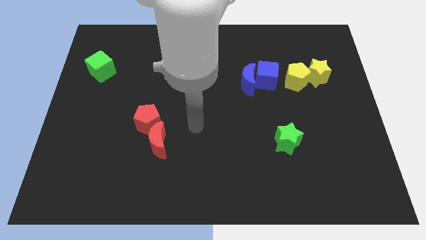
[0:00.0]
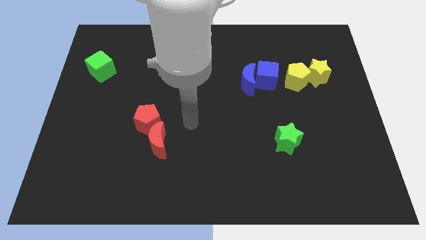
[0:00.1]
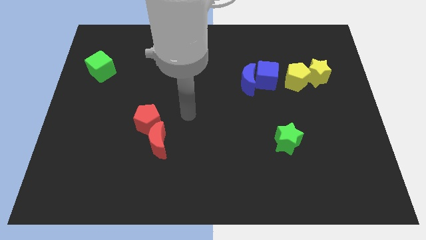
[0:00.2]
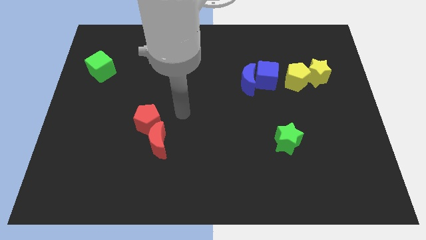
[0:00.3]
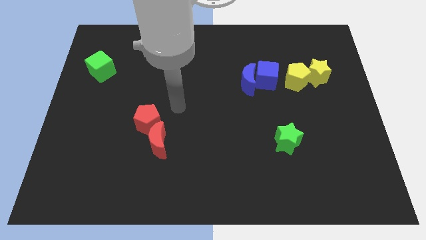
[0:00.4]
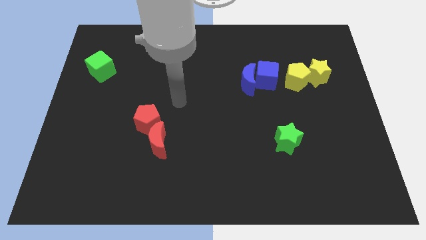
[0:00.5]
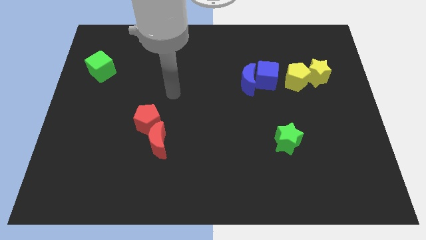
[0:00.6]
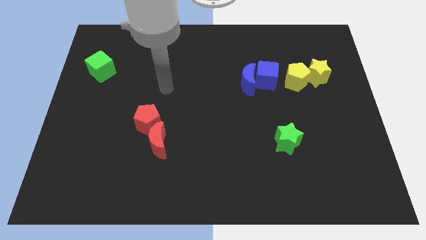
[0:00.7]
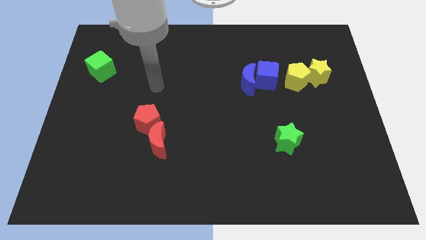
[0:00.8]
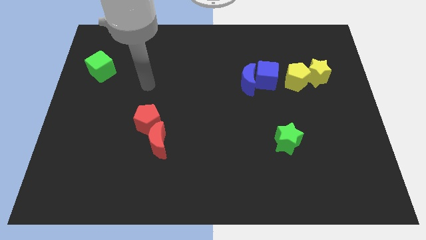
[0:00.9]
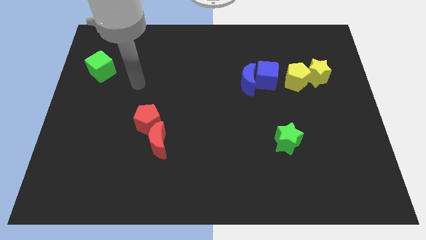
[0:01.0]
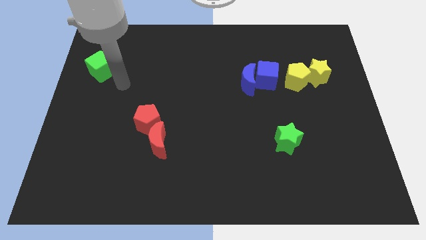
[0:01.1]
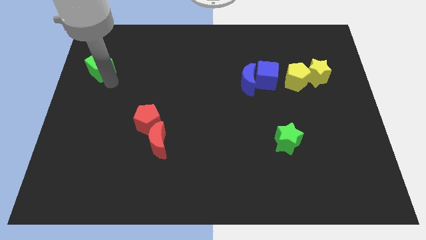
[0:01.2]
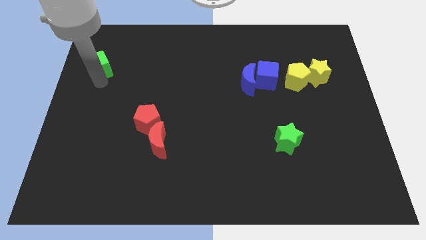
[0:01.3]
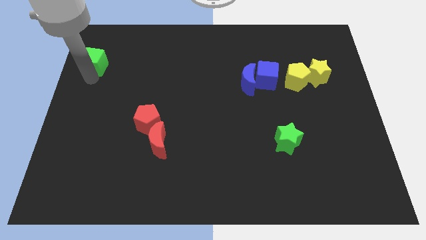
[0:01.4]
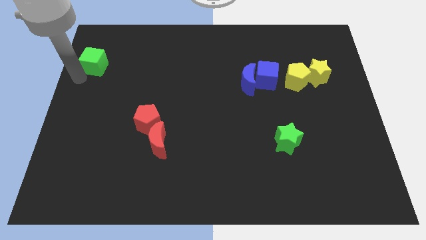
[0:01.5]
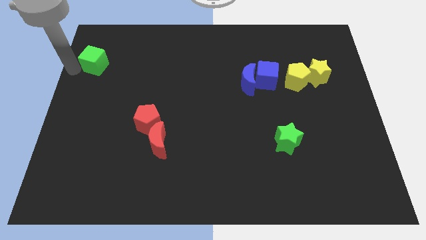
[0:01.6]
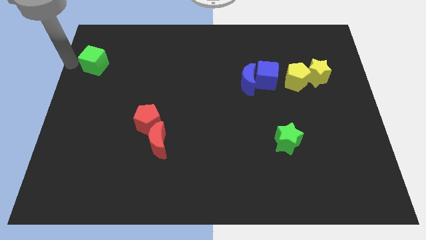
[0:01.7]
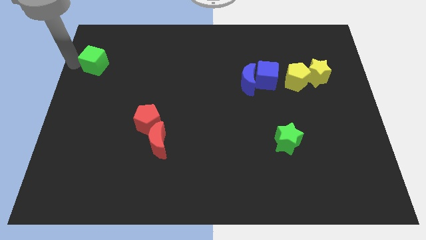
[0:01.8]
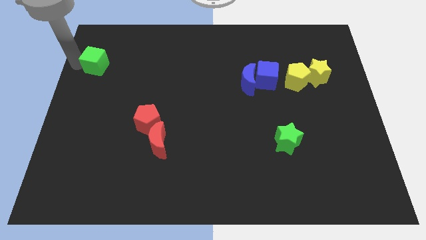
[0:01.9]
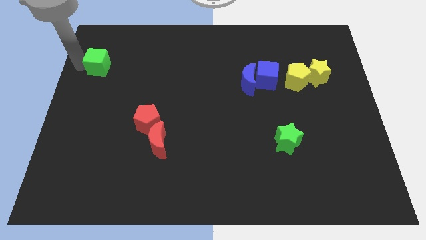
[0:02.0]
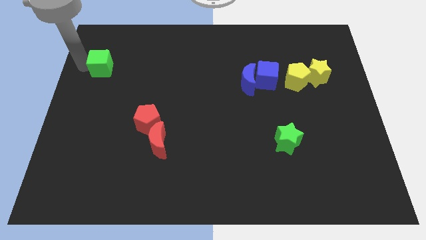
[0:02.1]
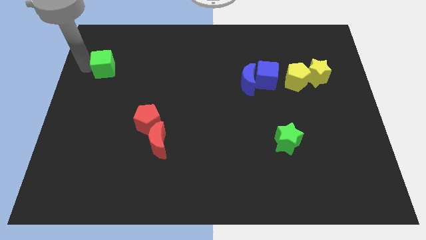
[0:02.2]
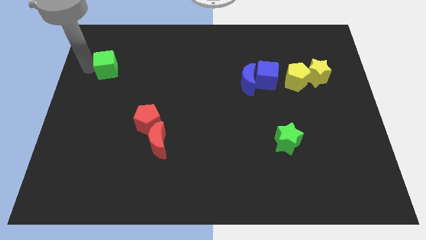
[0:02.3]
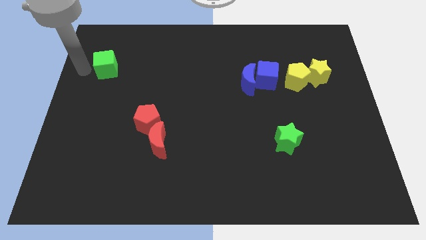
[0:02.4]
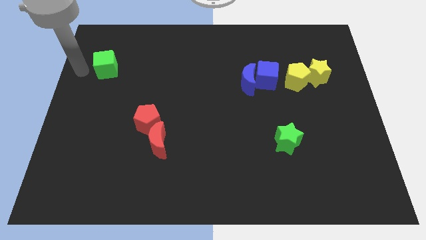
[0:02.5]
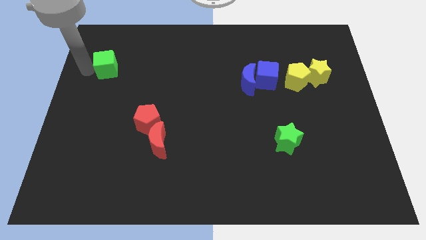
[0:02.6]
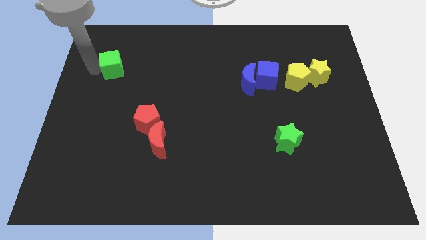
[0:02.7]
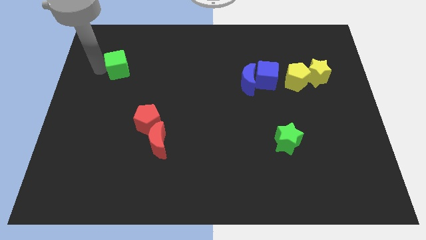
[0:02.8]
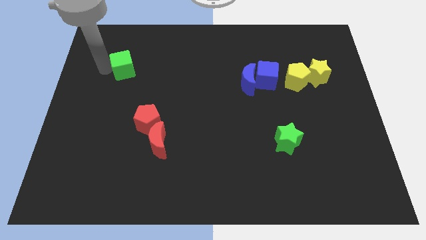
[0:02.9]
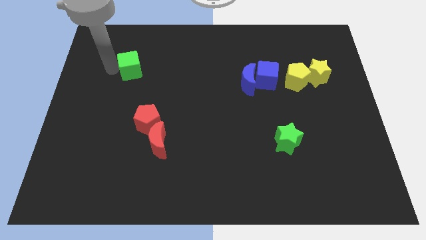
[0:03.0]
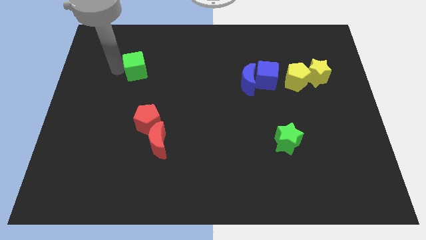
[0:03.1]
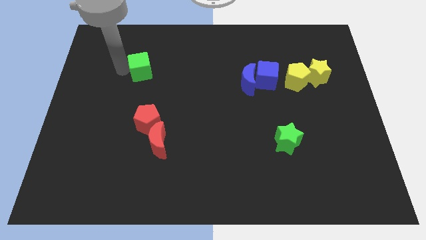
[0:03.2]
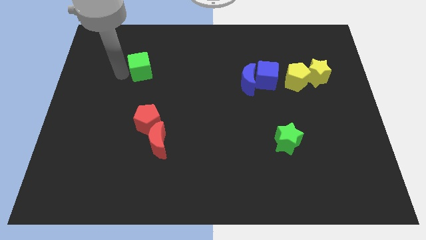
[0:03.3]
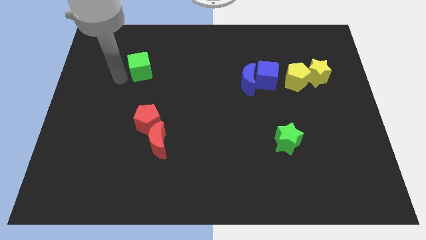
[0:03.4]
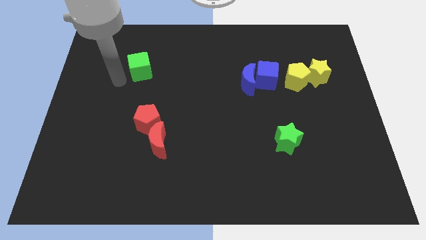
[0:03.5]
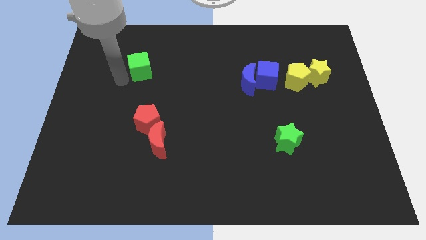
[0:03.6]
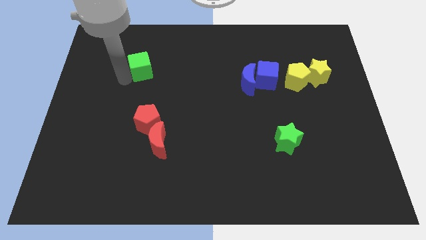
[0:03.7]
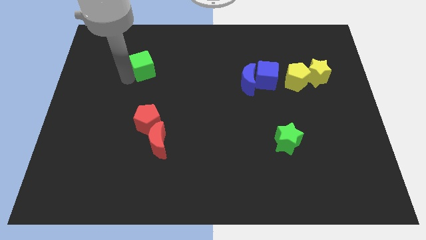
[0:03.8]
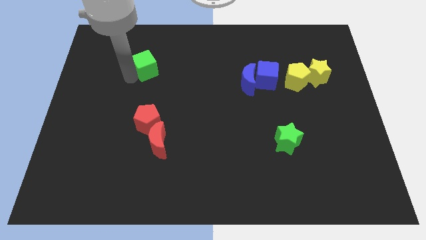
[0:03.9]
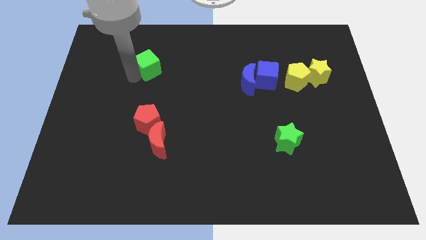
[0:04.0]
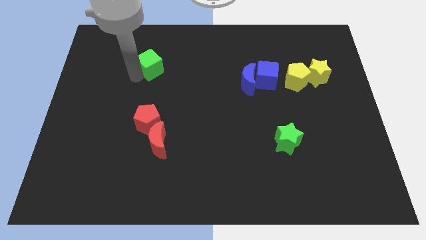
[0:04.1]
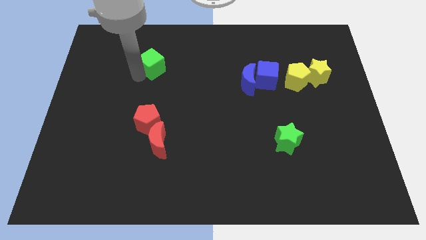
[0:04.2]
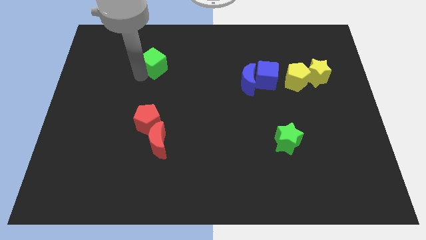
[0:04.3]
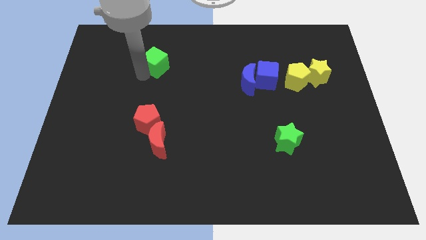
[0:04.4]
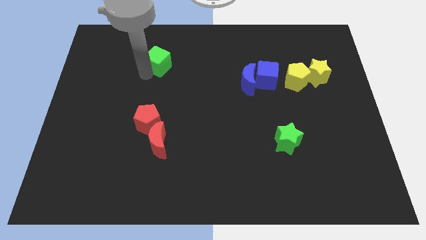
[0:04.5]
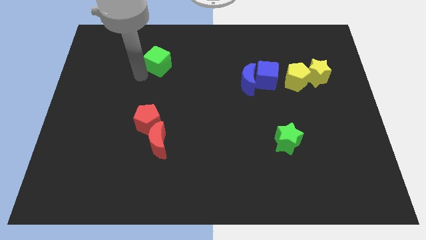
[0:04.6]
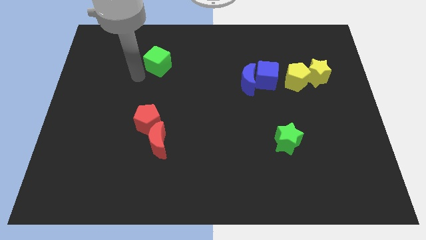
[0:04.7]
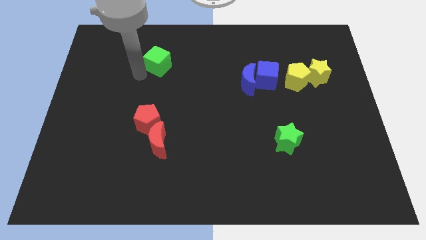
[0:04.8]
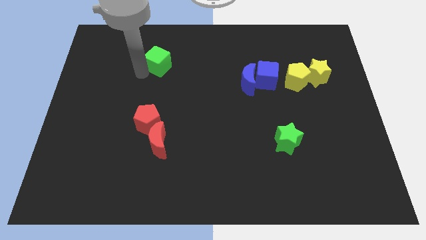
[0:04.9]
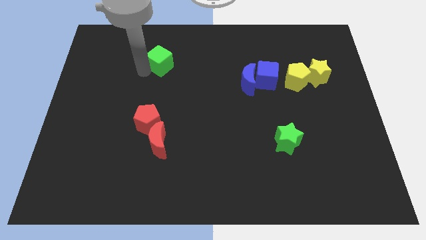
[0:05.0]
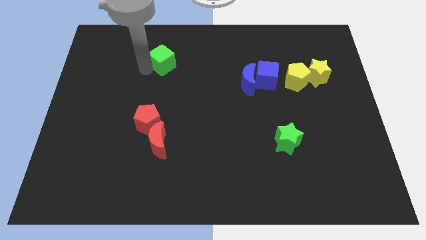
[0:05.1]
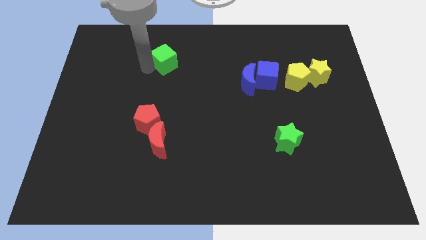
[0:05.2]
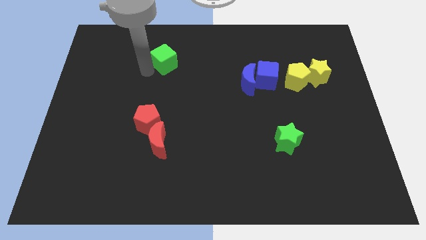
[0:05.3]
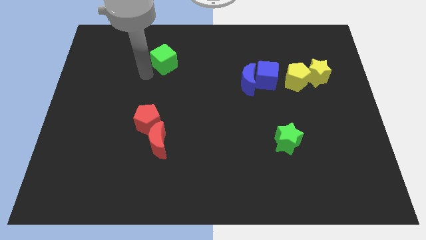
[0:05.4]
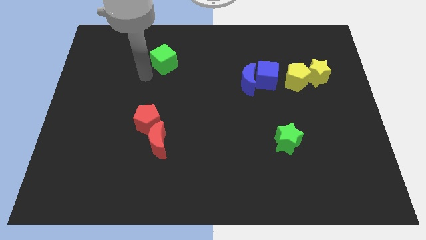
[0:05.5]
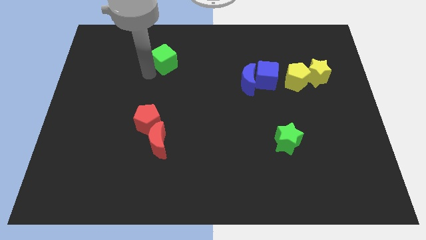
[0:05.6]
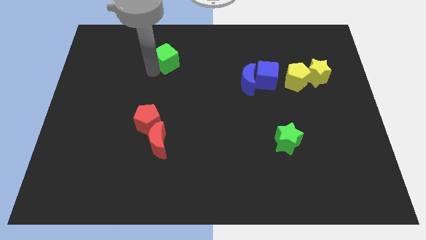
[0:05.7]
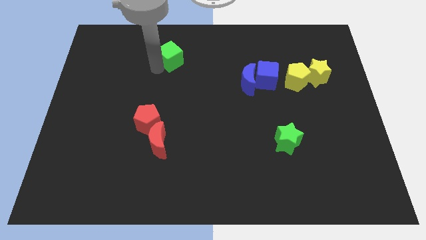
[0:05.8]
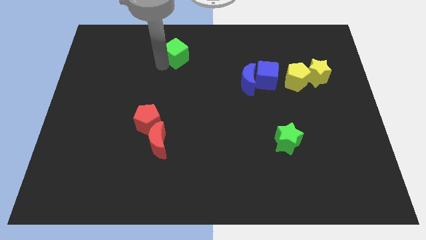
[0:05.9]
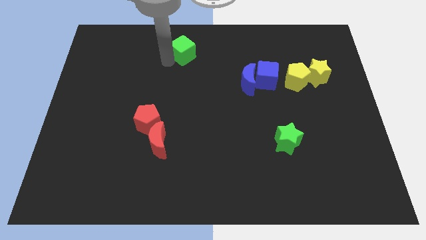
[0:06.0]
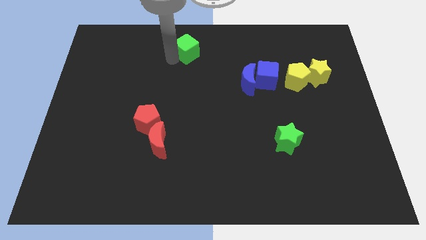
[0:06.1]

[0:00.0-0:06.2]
slide the green cube to the top

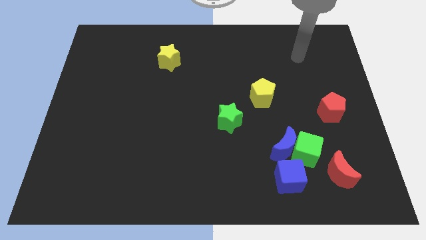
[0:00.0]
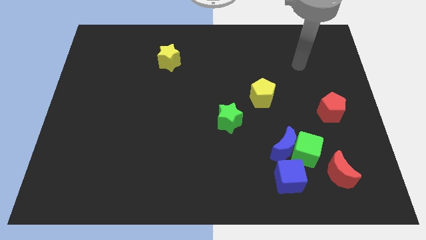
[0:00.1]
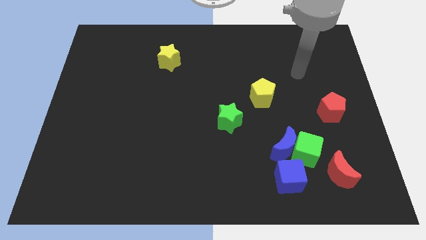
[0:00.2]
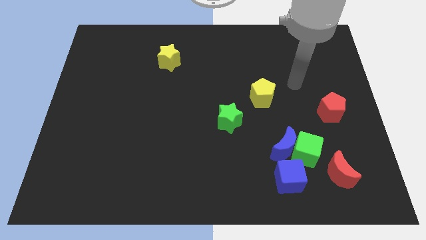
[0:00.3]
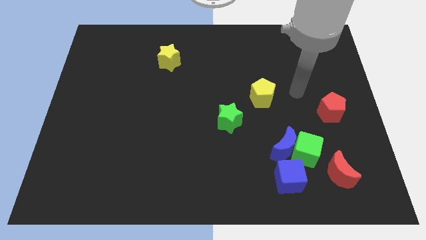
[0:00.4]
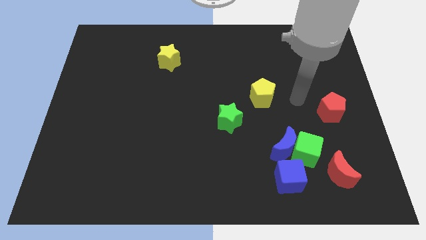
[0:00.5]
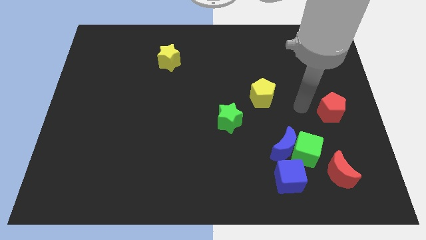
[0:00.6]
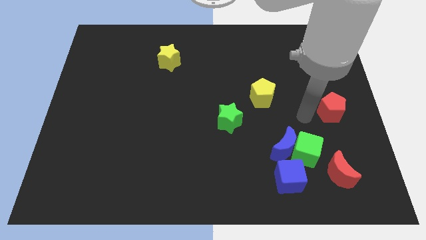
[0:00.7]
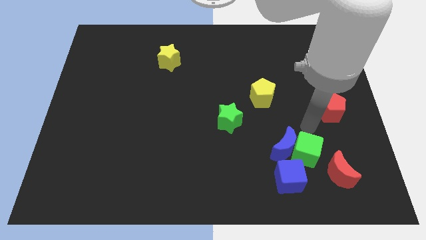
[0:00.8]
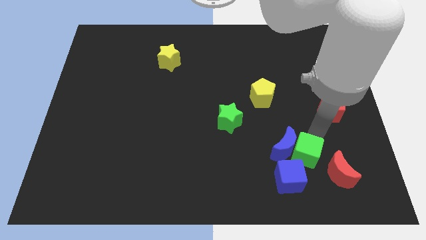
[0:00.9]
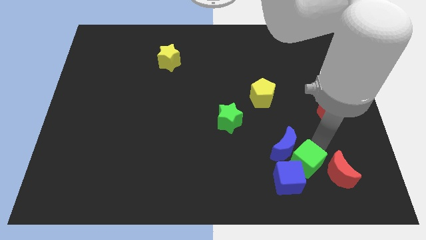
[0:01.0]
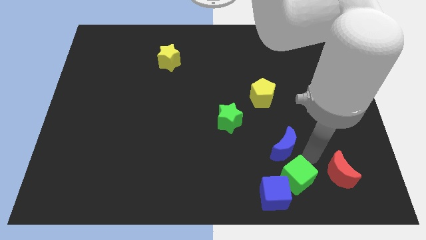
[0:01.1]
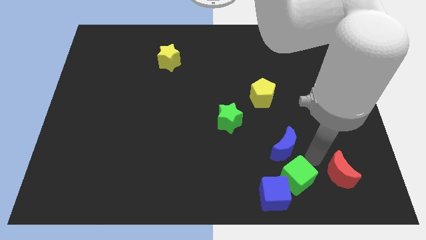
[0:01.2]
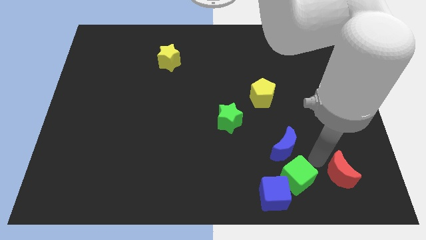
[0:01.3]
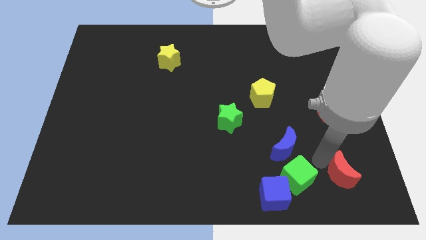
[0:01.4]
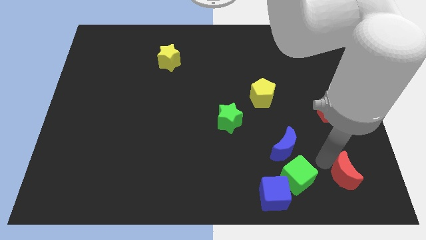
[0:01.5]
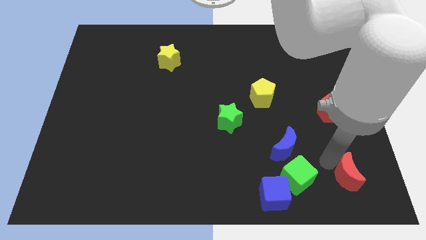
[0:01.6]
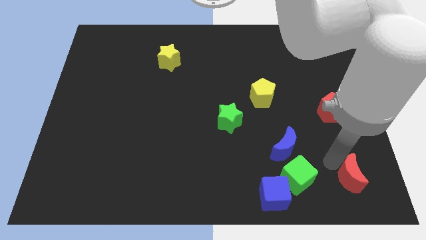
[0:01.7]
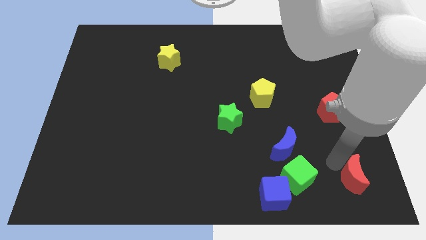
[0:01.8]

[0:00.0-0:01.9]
move the red moon to the bottom right corner
